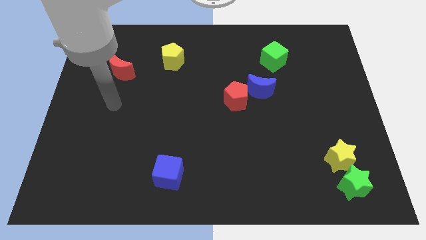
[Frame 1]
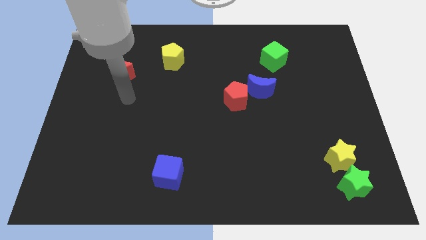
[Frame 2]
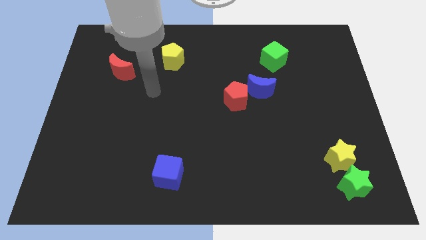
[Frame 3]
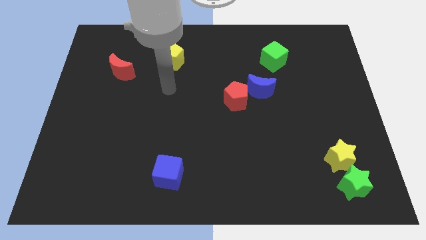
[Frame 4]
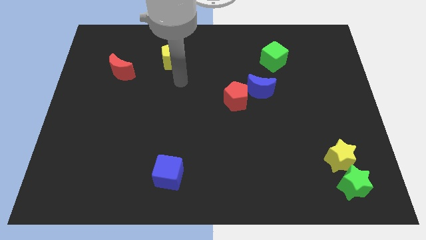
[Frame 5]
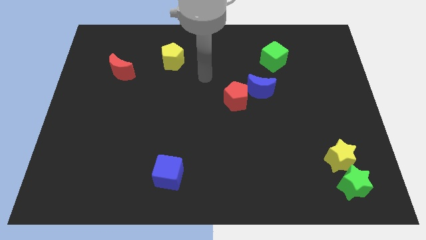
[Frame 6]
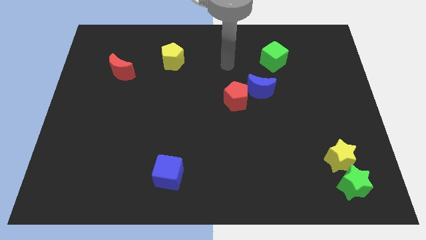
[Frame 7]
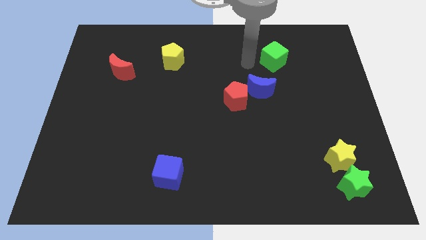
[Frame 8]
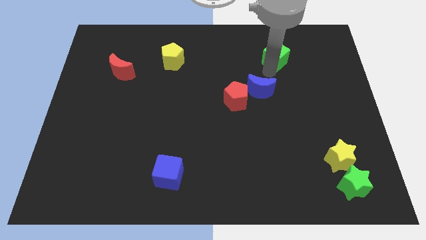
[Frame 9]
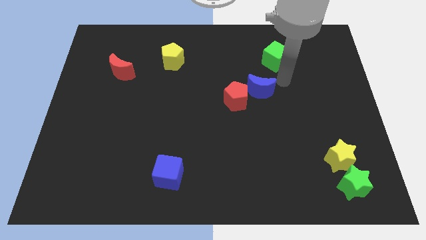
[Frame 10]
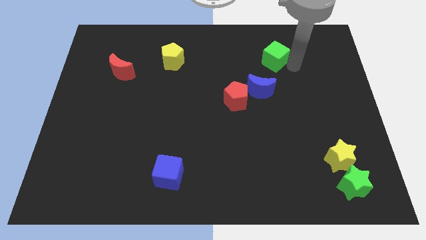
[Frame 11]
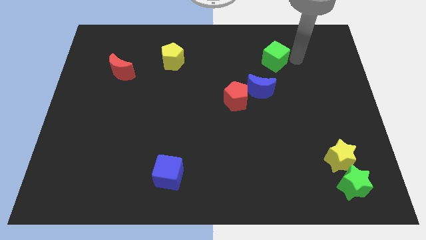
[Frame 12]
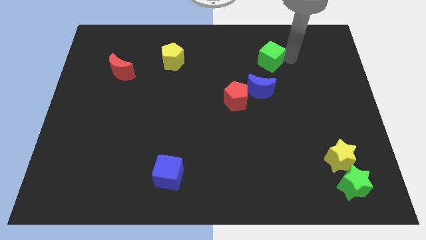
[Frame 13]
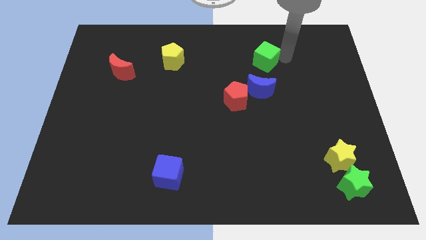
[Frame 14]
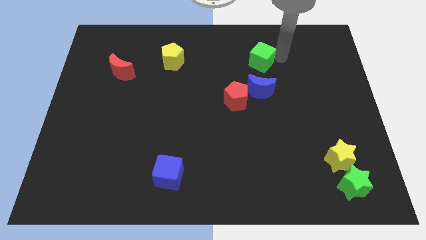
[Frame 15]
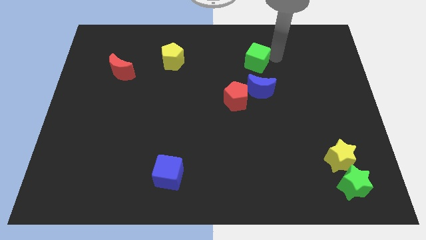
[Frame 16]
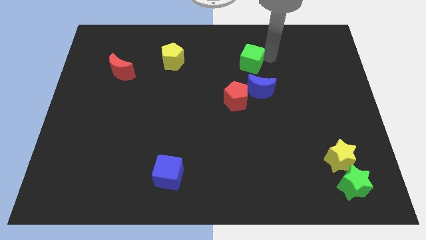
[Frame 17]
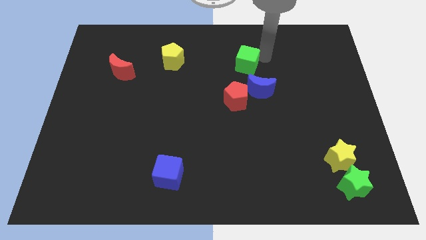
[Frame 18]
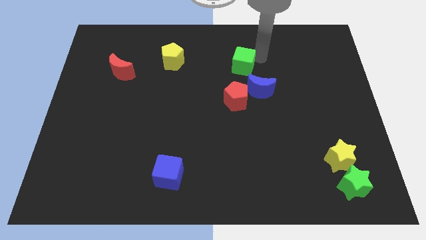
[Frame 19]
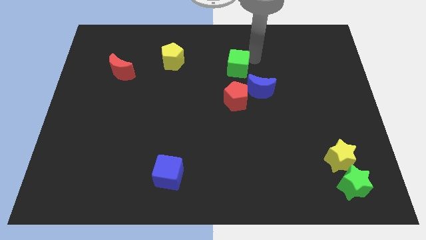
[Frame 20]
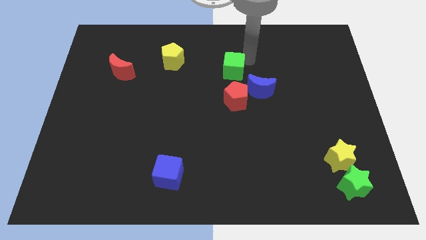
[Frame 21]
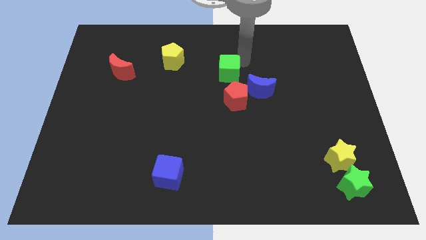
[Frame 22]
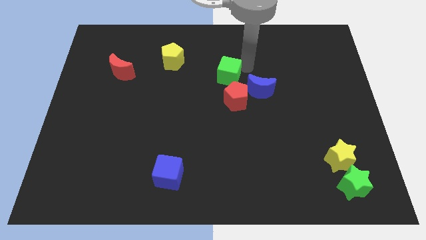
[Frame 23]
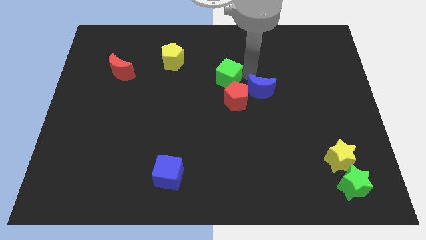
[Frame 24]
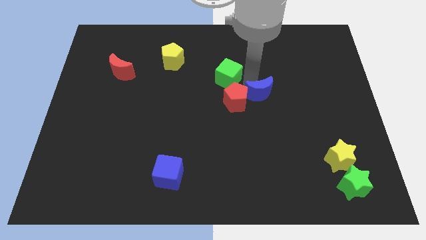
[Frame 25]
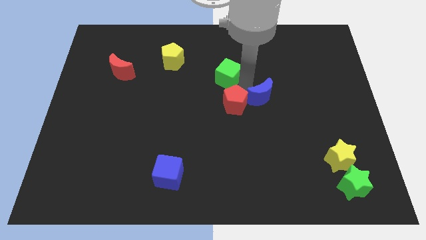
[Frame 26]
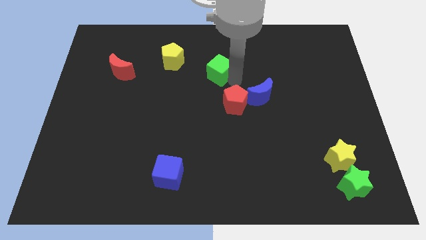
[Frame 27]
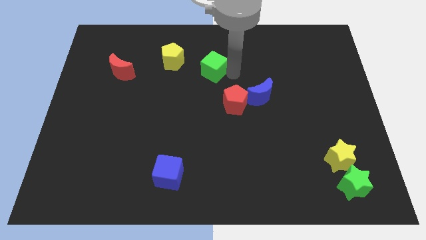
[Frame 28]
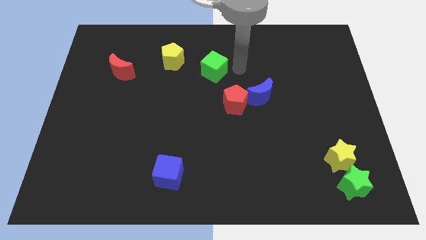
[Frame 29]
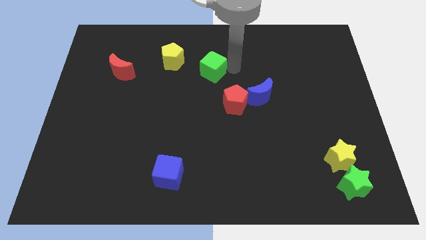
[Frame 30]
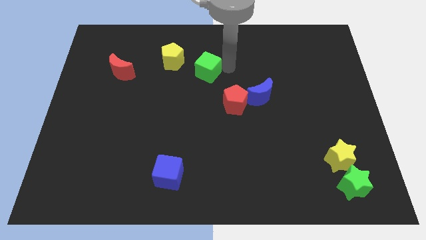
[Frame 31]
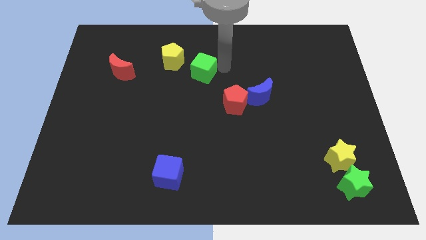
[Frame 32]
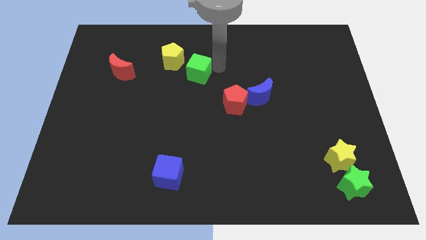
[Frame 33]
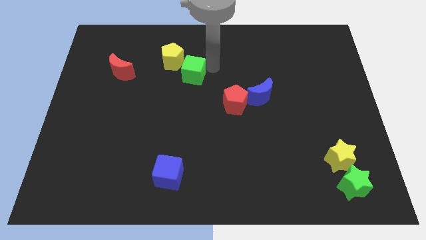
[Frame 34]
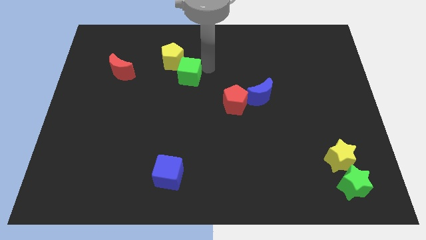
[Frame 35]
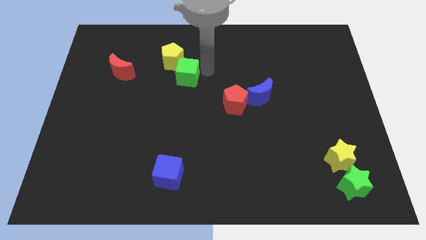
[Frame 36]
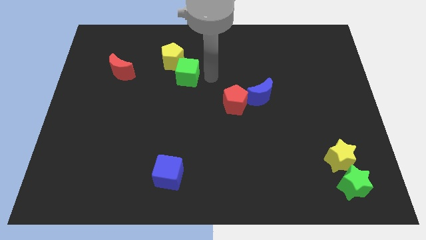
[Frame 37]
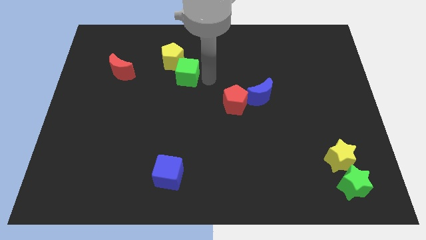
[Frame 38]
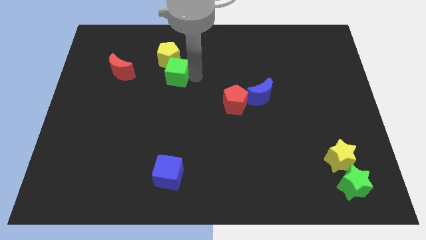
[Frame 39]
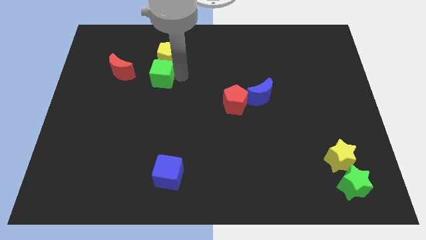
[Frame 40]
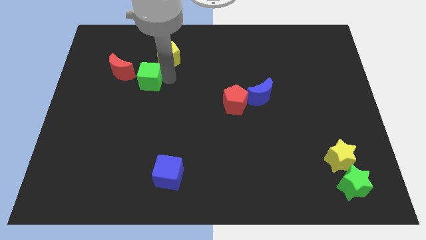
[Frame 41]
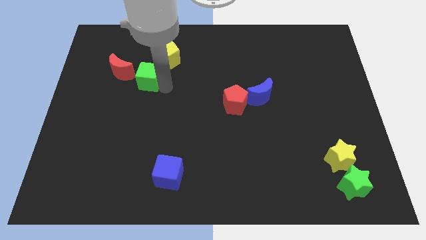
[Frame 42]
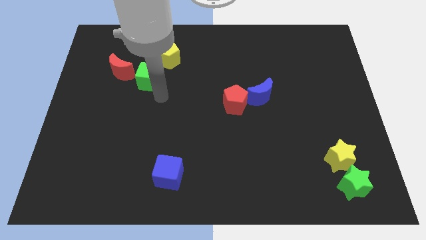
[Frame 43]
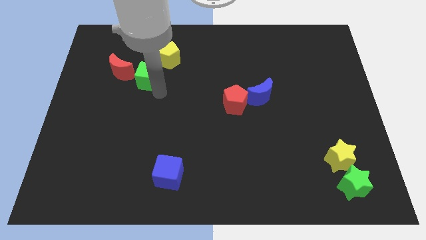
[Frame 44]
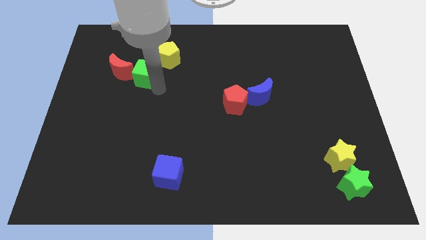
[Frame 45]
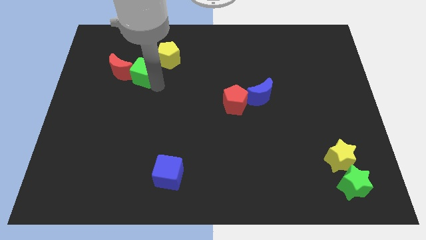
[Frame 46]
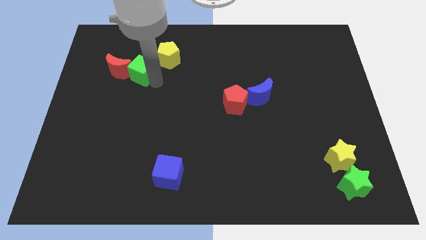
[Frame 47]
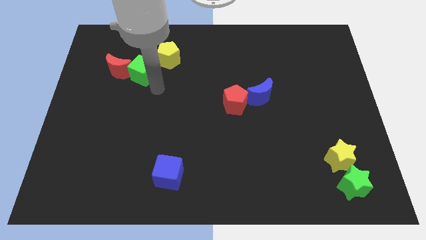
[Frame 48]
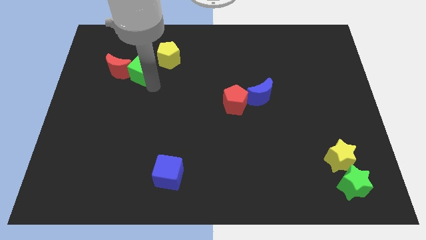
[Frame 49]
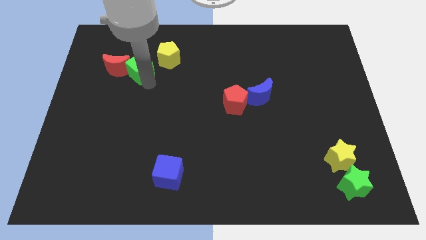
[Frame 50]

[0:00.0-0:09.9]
push the green cube left of the yellow pentagon

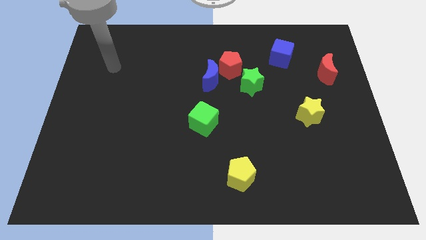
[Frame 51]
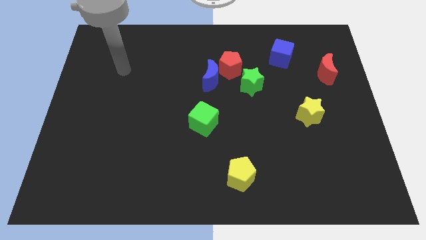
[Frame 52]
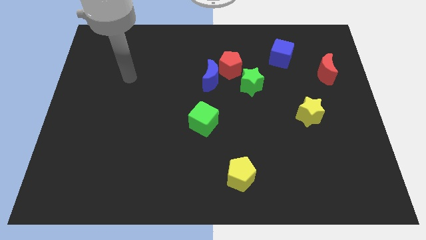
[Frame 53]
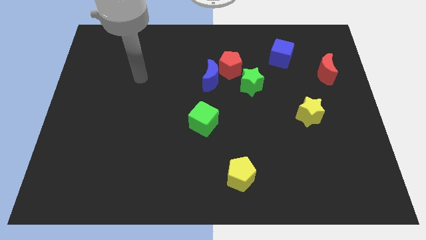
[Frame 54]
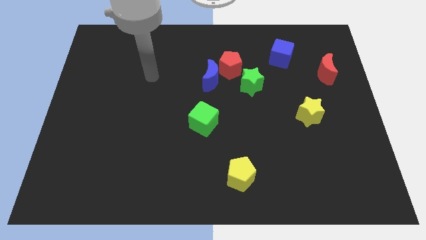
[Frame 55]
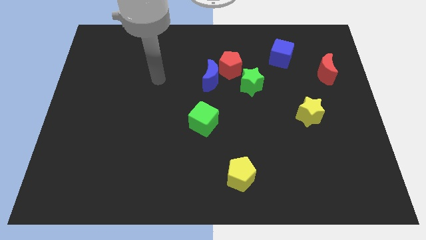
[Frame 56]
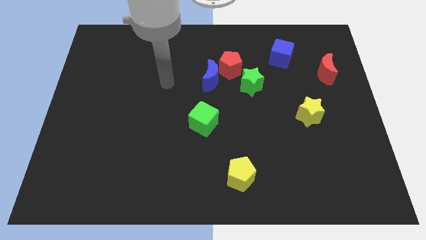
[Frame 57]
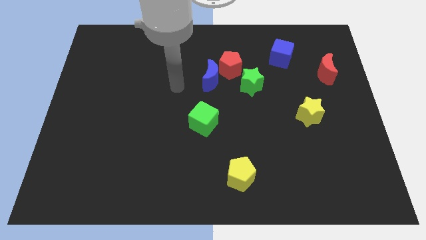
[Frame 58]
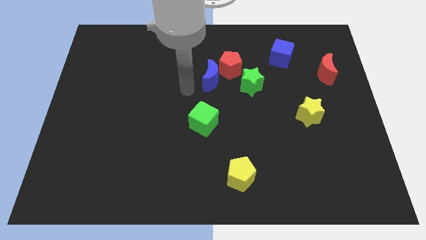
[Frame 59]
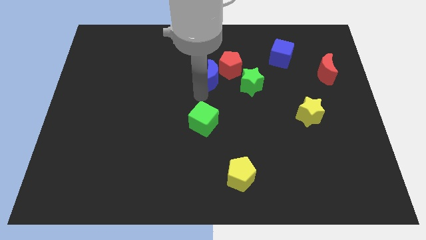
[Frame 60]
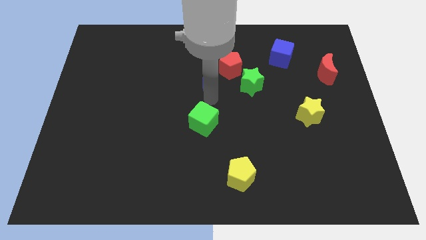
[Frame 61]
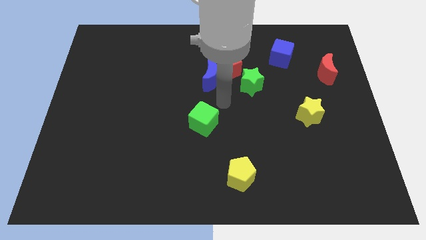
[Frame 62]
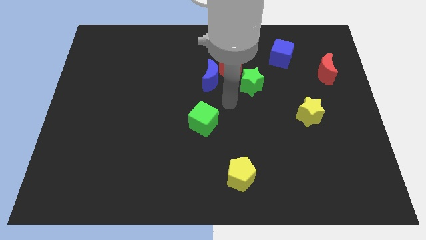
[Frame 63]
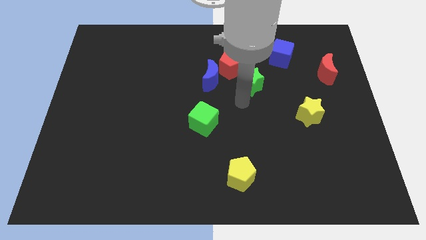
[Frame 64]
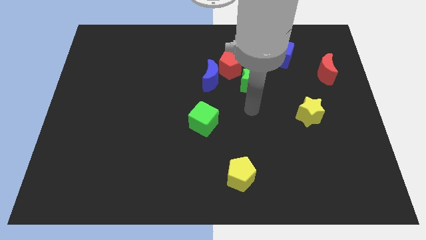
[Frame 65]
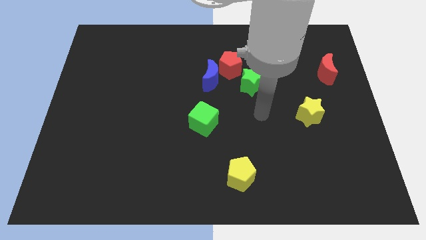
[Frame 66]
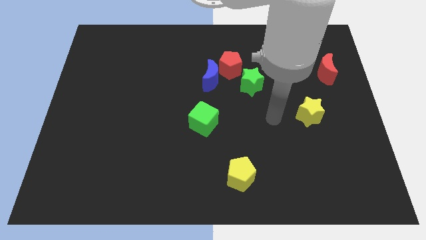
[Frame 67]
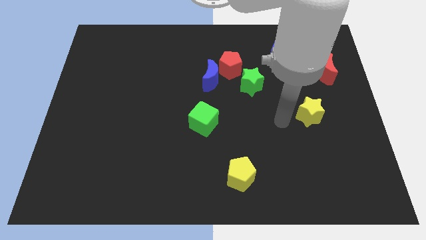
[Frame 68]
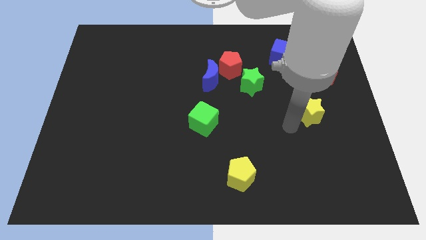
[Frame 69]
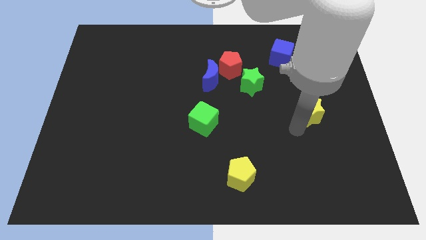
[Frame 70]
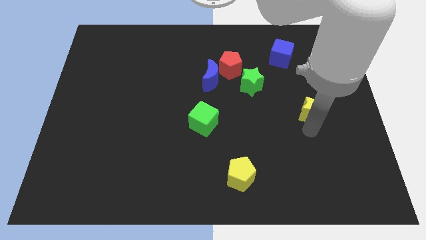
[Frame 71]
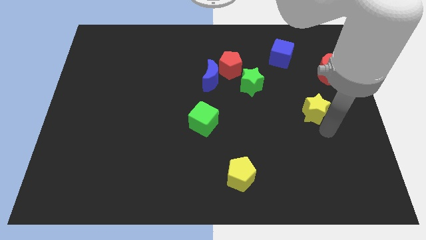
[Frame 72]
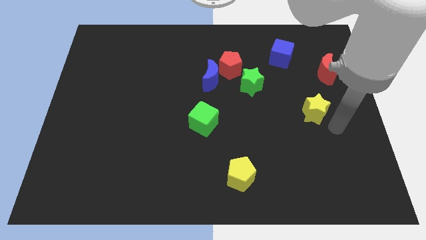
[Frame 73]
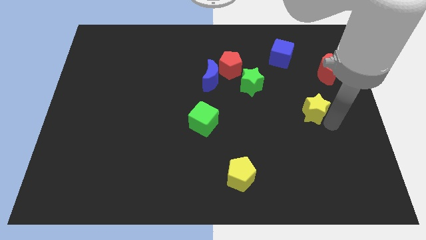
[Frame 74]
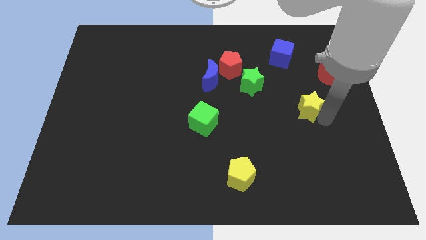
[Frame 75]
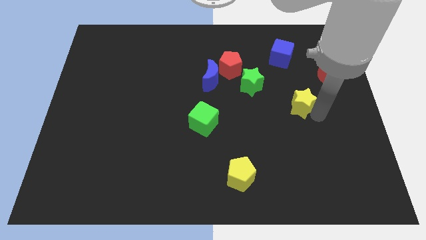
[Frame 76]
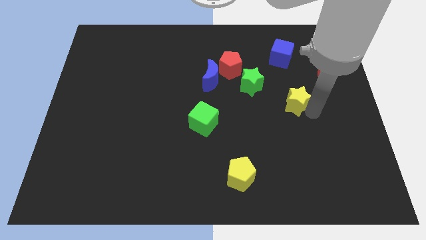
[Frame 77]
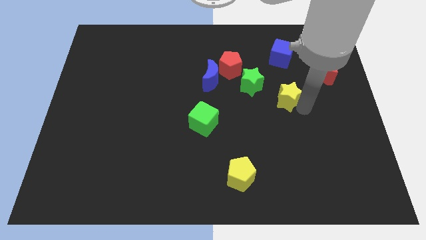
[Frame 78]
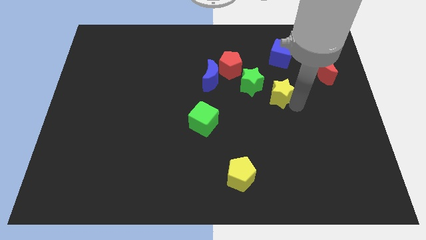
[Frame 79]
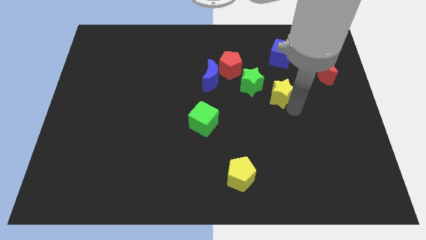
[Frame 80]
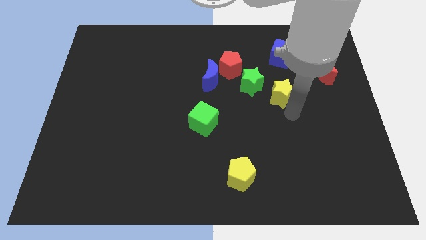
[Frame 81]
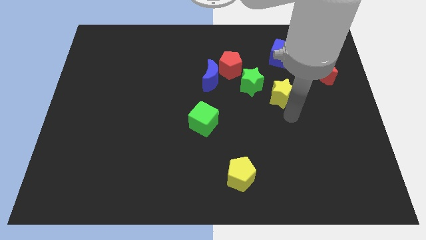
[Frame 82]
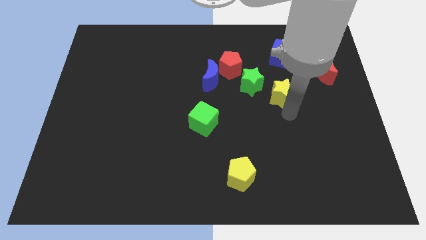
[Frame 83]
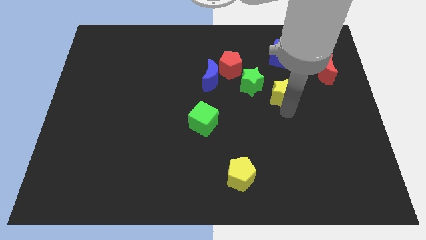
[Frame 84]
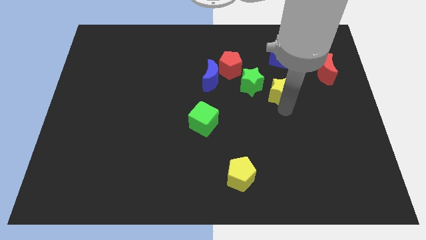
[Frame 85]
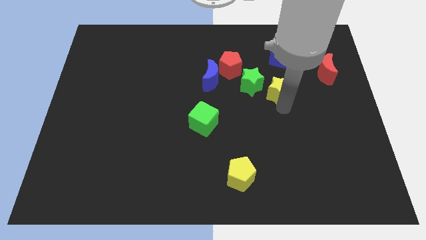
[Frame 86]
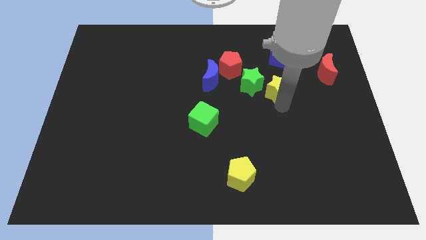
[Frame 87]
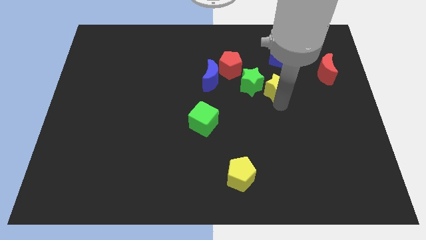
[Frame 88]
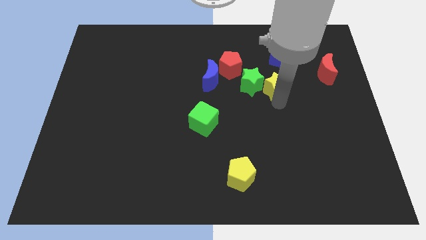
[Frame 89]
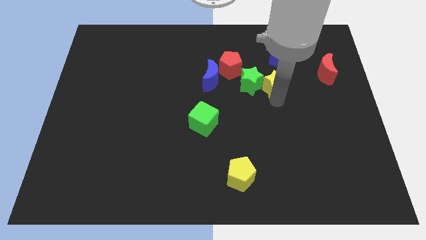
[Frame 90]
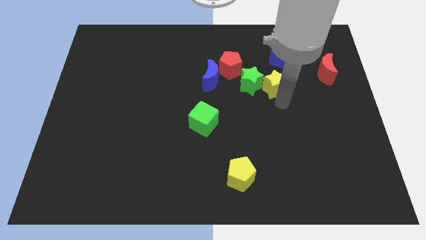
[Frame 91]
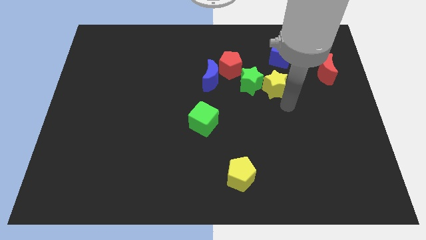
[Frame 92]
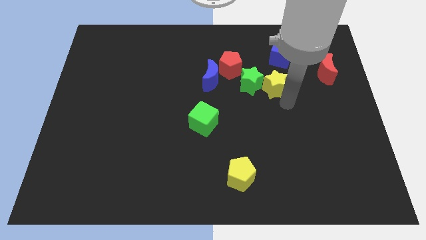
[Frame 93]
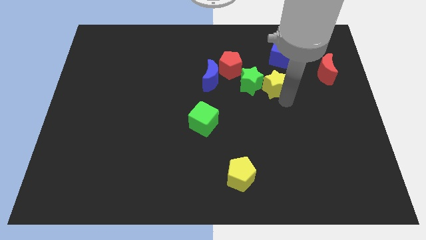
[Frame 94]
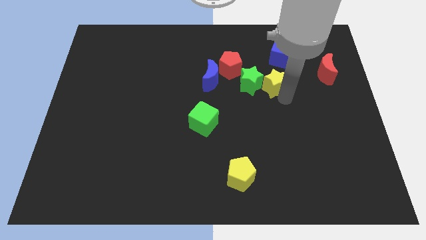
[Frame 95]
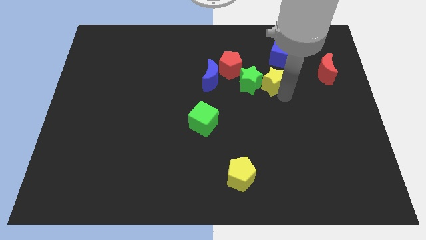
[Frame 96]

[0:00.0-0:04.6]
move the yellow star diagonally down and to the left of the blue cube
